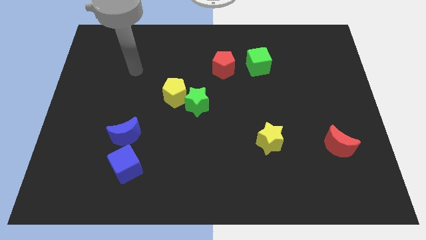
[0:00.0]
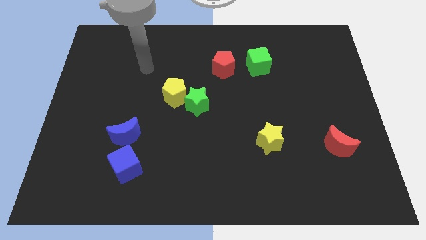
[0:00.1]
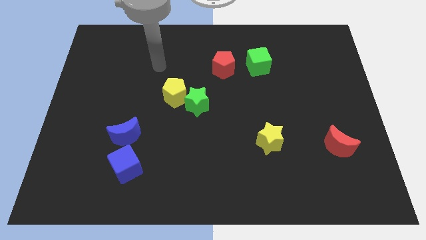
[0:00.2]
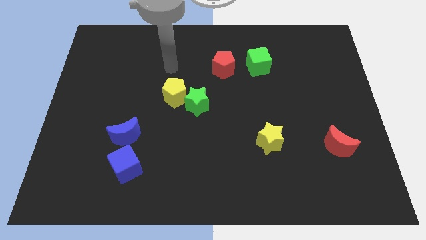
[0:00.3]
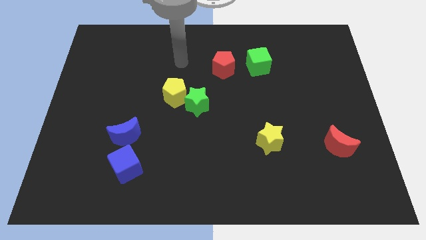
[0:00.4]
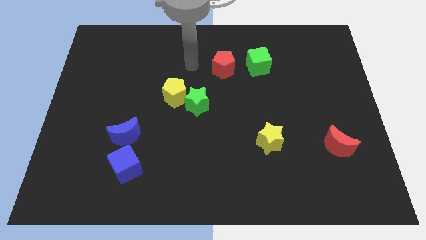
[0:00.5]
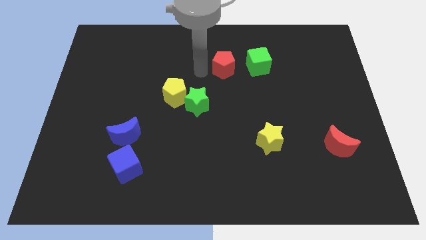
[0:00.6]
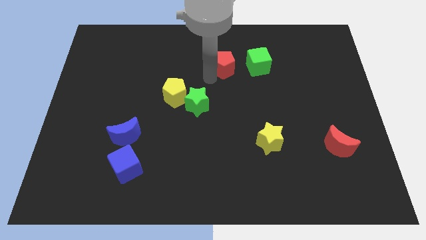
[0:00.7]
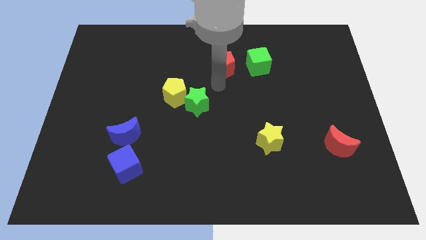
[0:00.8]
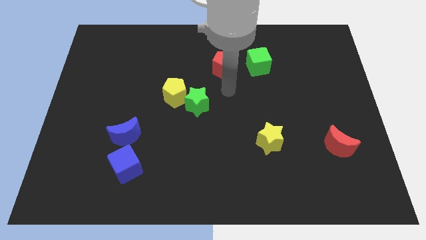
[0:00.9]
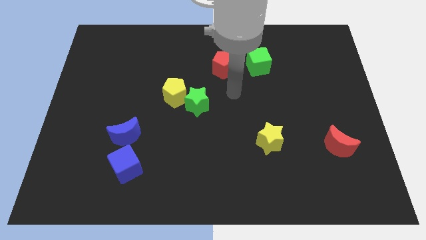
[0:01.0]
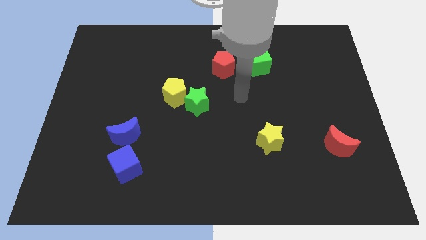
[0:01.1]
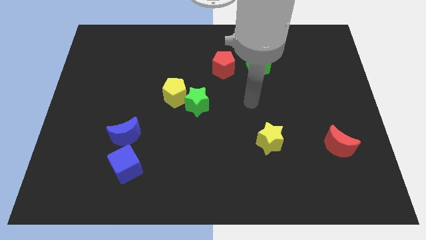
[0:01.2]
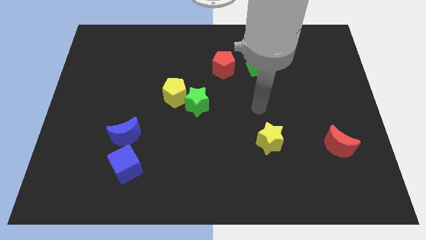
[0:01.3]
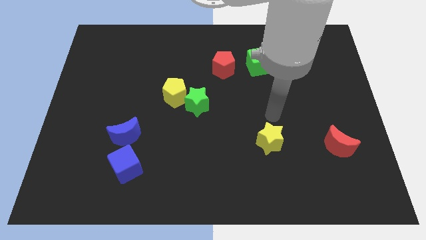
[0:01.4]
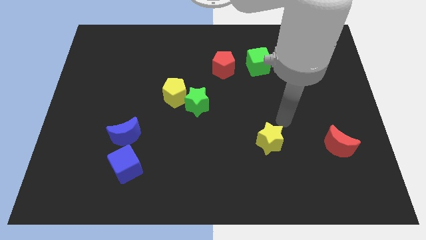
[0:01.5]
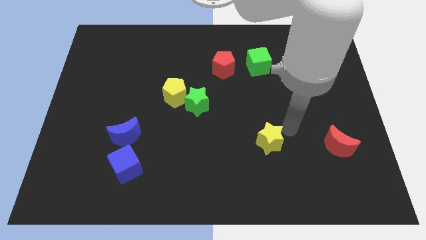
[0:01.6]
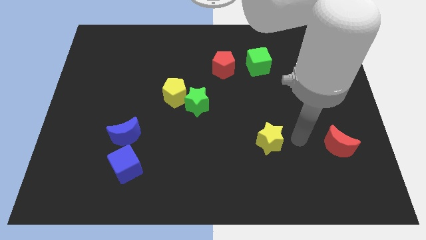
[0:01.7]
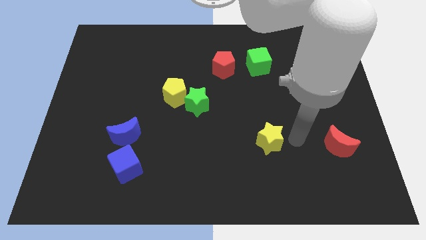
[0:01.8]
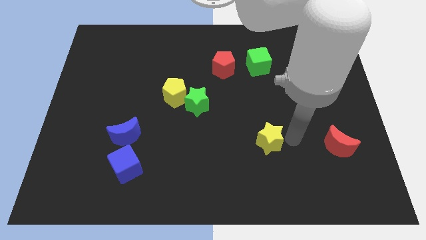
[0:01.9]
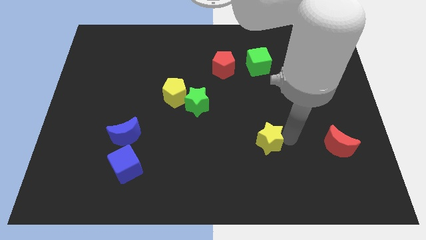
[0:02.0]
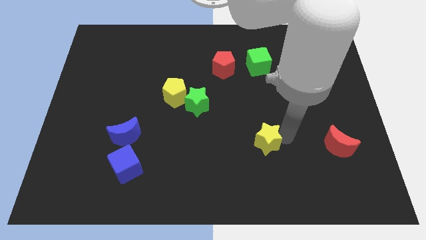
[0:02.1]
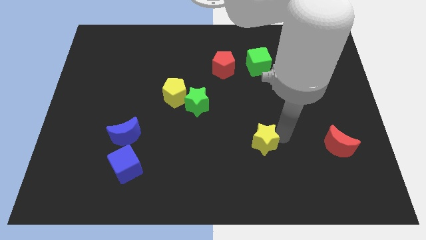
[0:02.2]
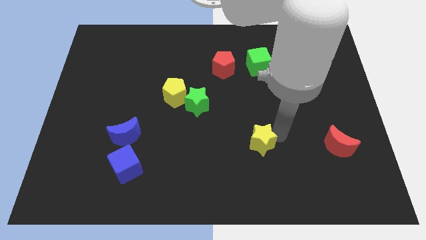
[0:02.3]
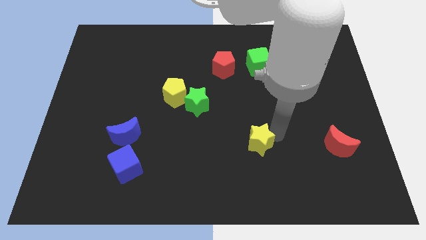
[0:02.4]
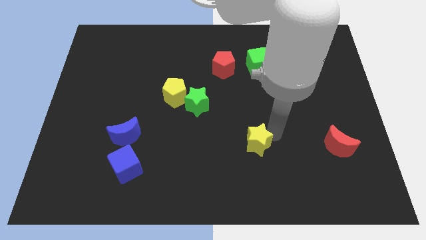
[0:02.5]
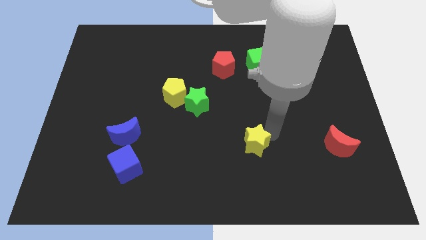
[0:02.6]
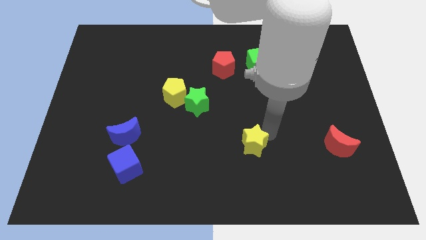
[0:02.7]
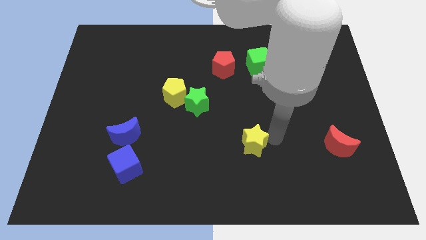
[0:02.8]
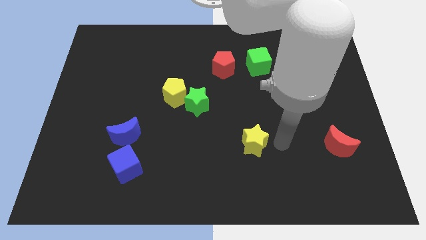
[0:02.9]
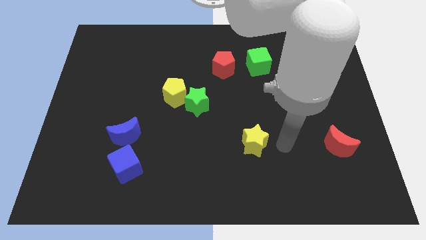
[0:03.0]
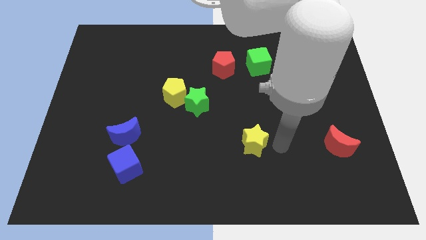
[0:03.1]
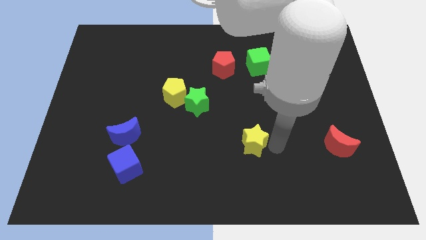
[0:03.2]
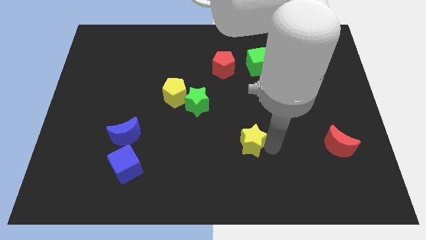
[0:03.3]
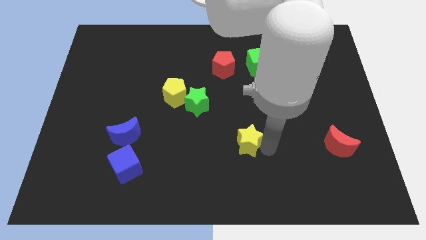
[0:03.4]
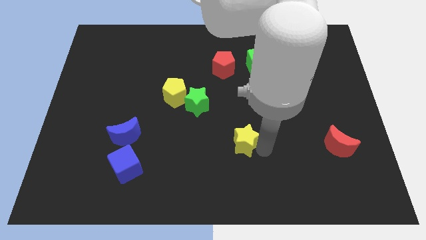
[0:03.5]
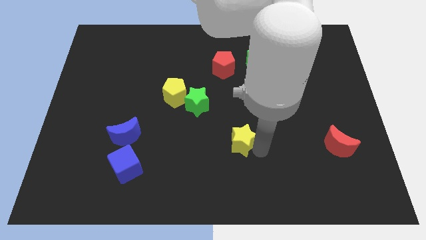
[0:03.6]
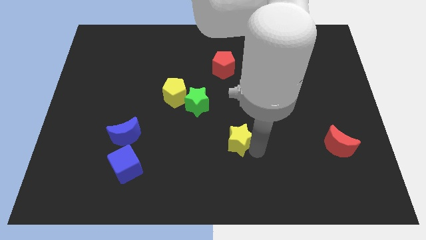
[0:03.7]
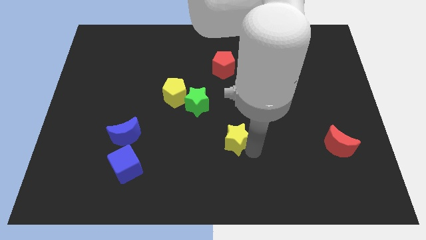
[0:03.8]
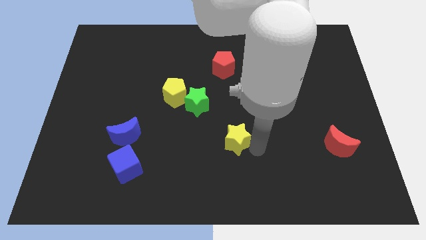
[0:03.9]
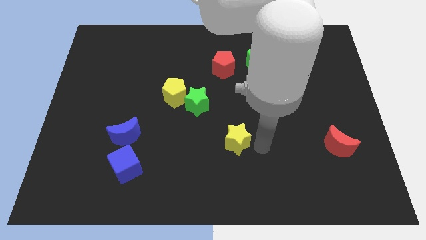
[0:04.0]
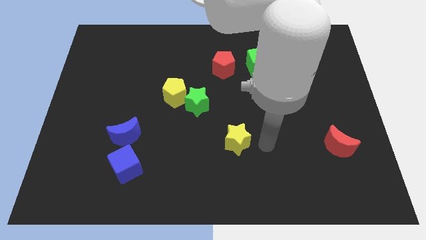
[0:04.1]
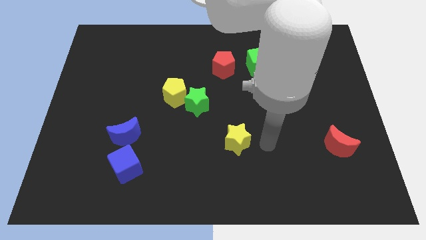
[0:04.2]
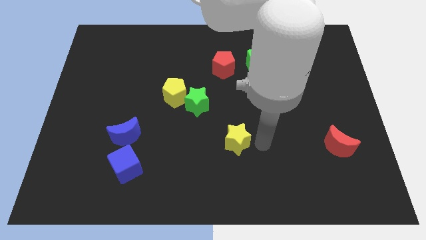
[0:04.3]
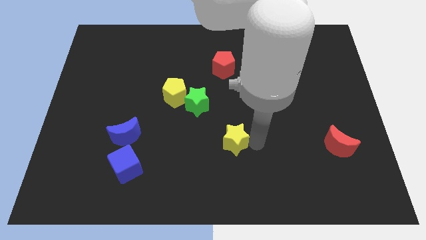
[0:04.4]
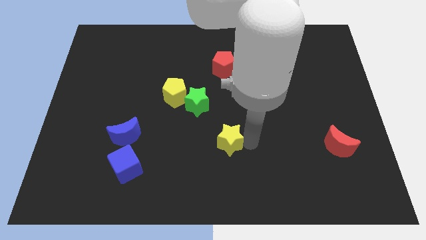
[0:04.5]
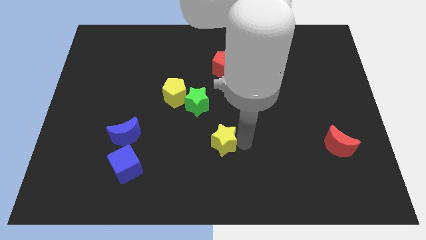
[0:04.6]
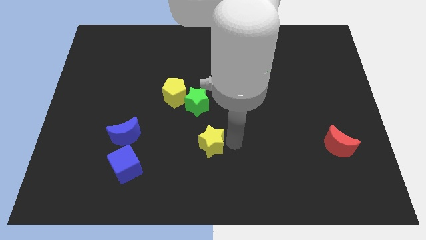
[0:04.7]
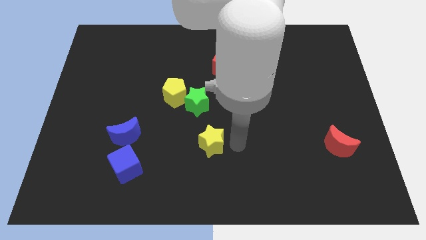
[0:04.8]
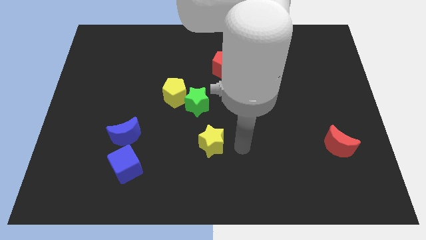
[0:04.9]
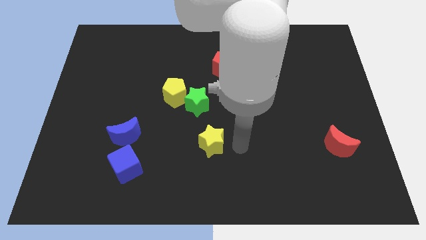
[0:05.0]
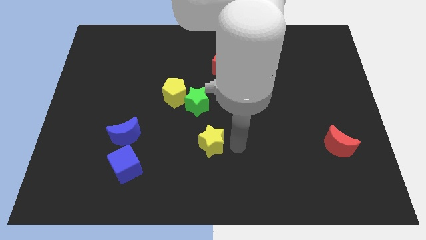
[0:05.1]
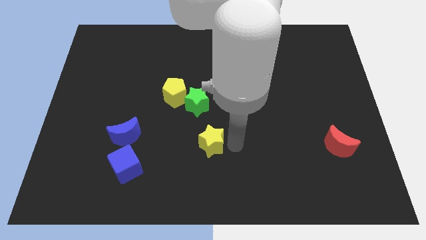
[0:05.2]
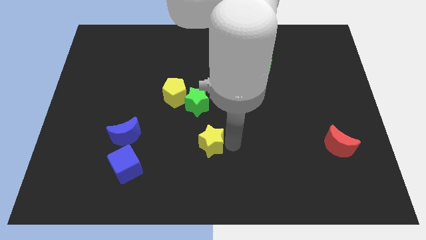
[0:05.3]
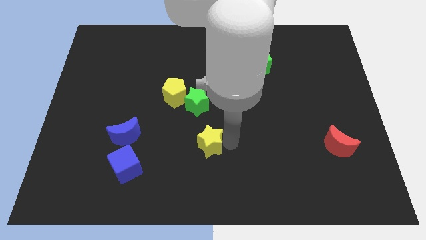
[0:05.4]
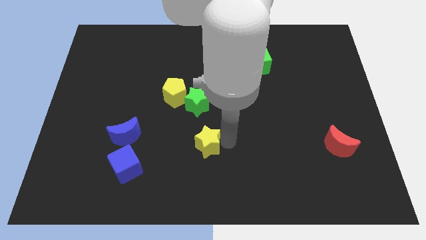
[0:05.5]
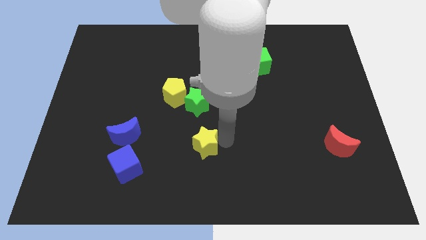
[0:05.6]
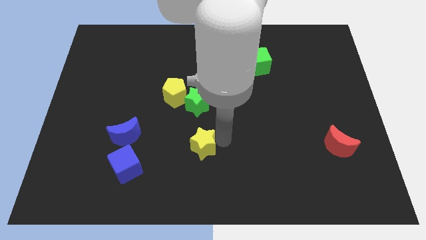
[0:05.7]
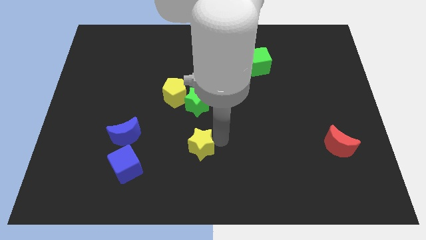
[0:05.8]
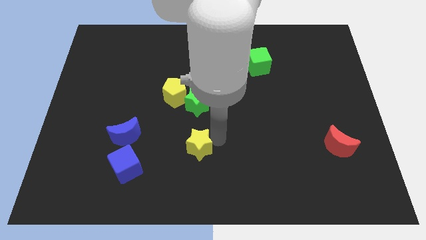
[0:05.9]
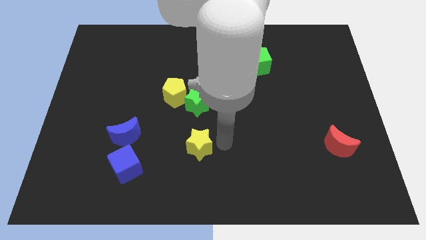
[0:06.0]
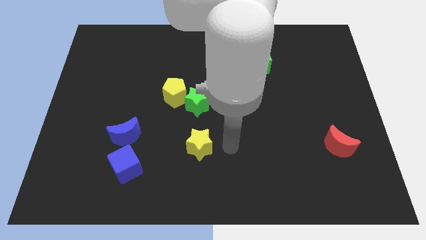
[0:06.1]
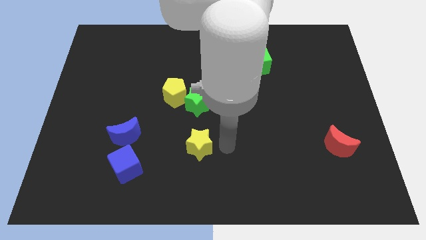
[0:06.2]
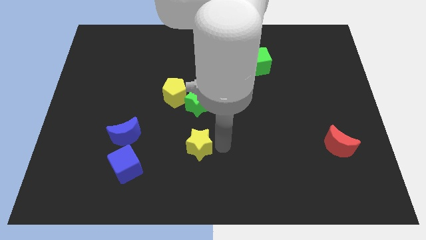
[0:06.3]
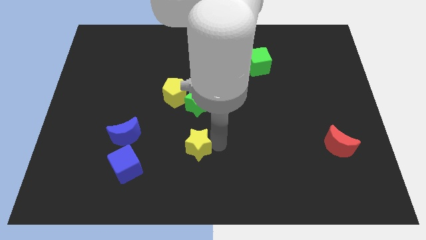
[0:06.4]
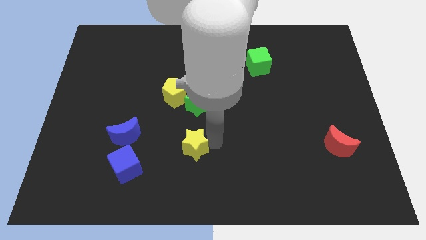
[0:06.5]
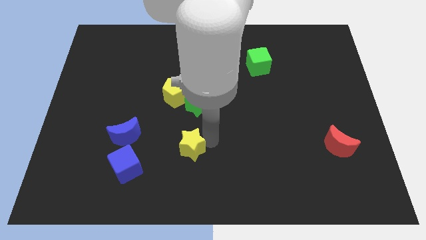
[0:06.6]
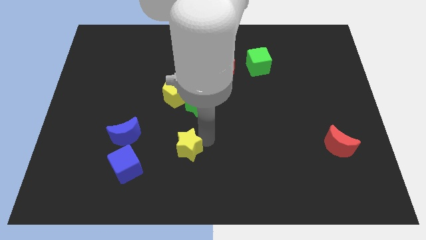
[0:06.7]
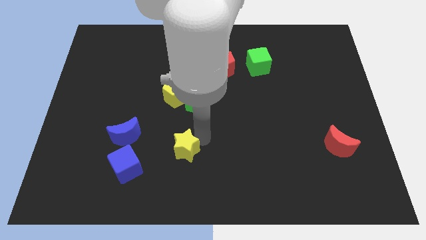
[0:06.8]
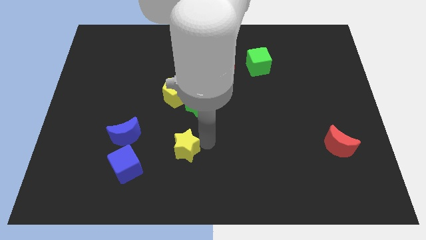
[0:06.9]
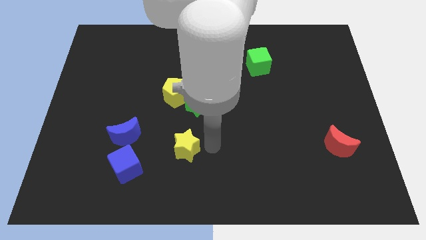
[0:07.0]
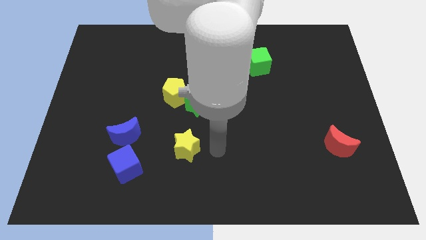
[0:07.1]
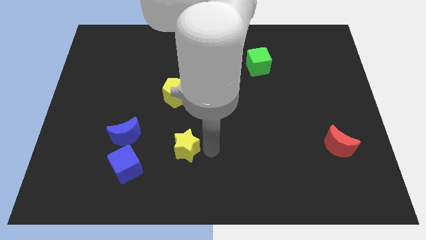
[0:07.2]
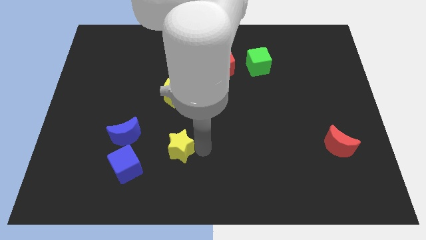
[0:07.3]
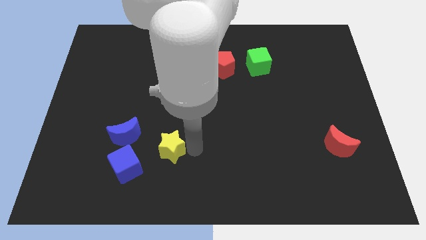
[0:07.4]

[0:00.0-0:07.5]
put the yellow star to the top right side of the blue cube

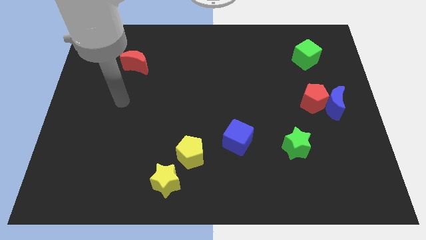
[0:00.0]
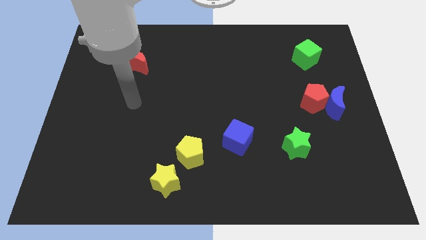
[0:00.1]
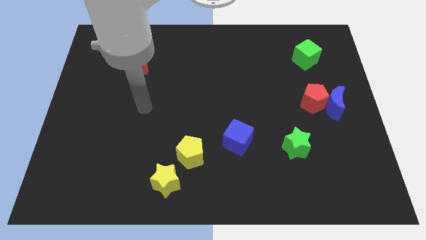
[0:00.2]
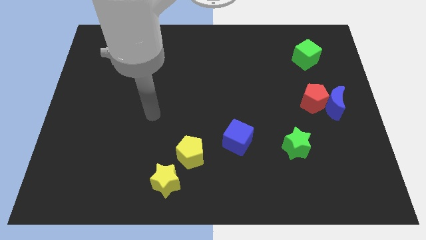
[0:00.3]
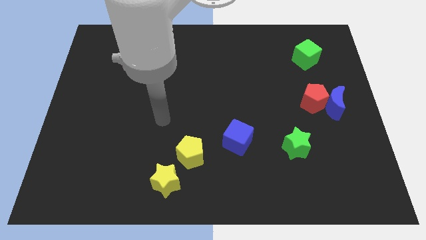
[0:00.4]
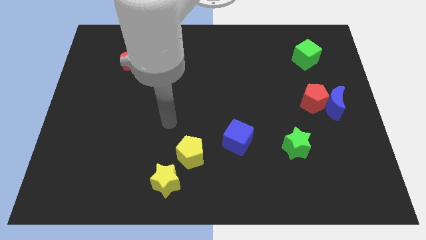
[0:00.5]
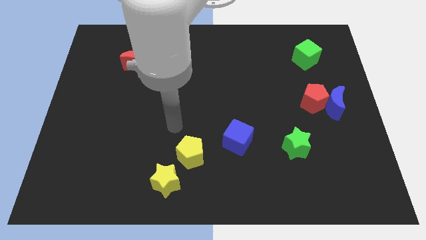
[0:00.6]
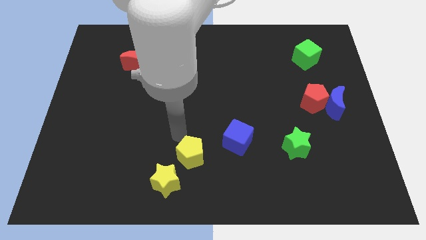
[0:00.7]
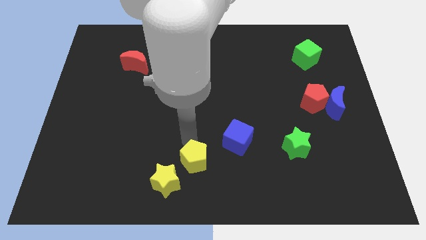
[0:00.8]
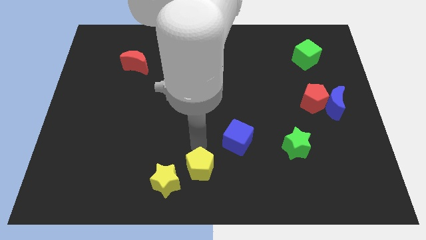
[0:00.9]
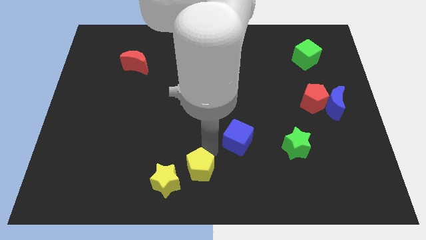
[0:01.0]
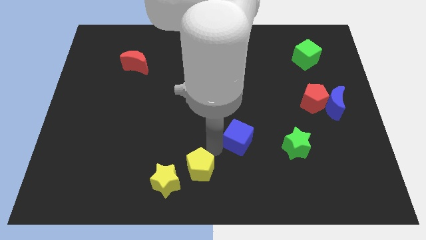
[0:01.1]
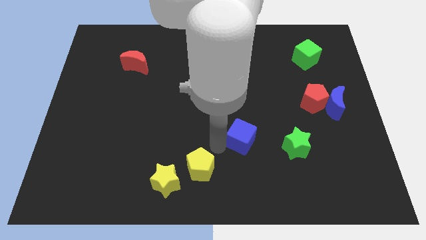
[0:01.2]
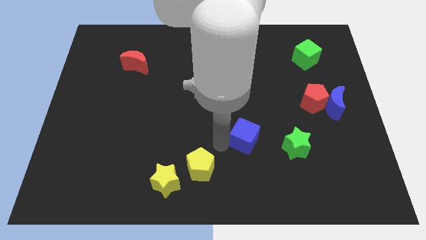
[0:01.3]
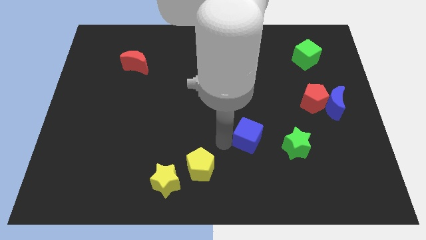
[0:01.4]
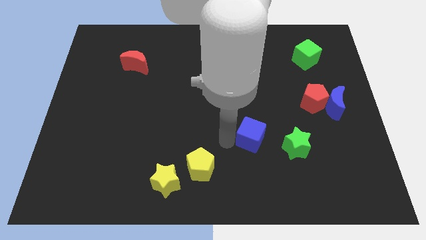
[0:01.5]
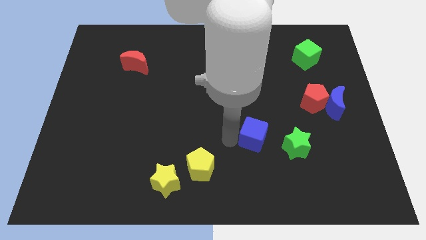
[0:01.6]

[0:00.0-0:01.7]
push the blue cube to the top left of the green star
